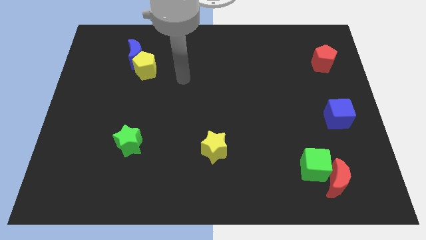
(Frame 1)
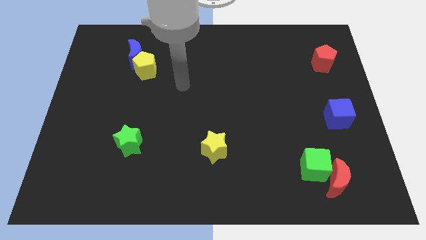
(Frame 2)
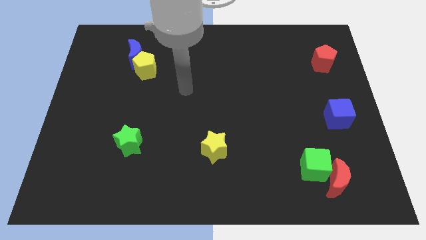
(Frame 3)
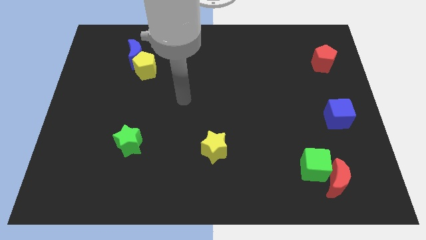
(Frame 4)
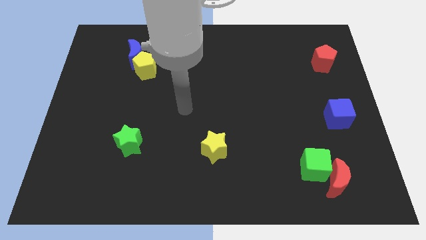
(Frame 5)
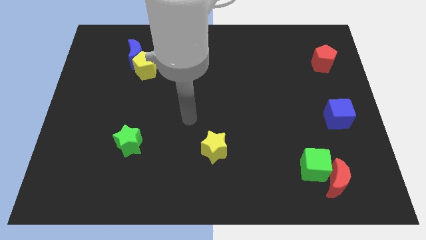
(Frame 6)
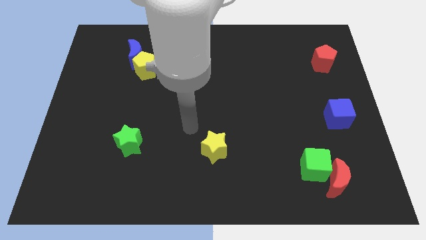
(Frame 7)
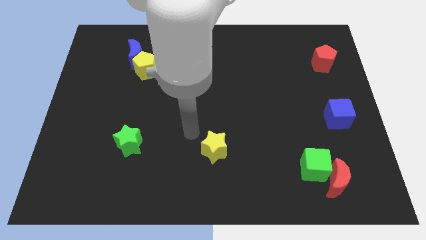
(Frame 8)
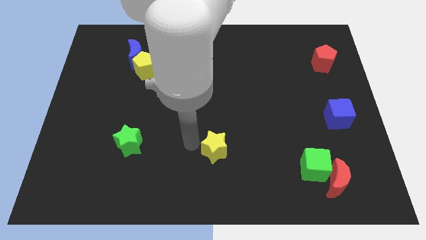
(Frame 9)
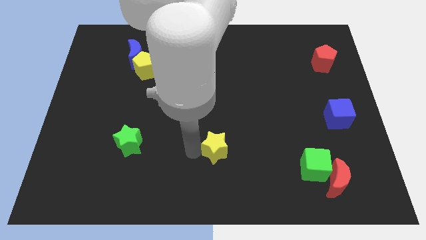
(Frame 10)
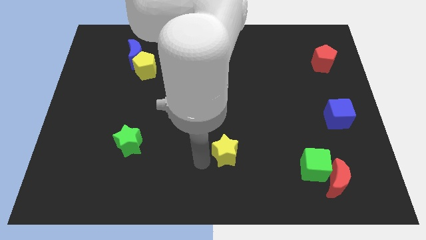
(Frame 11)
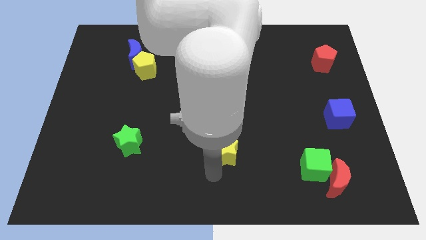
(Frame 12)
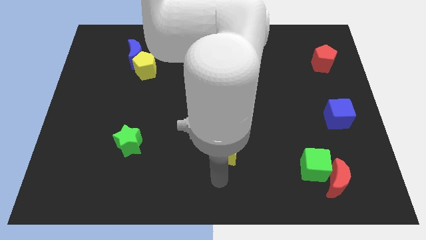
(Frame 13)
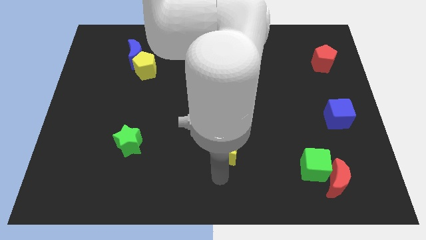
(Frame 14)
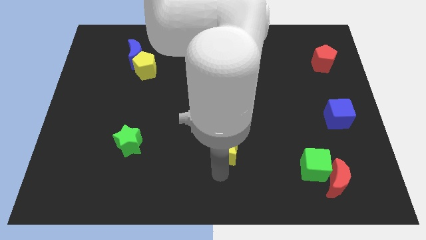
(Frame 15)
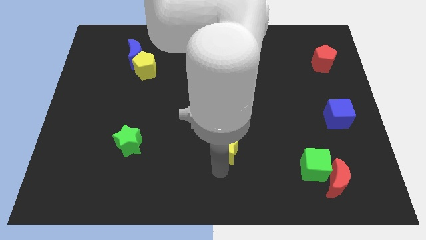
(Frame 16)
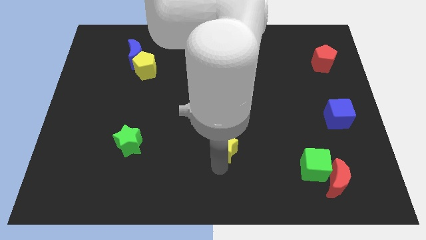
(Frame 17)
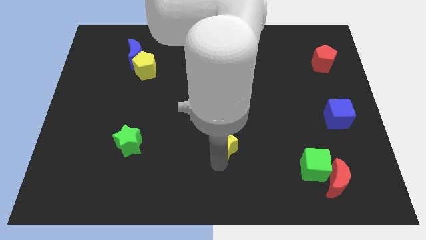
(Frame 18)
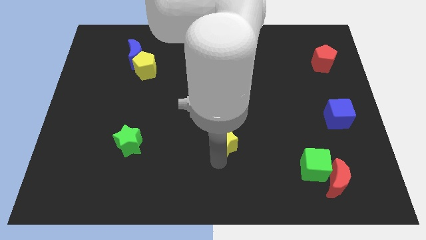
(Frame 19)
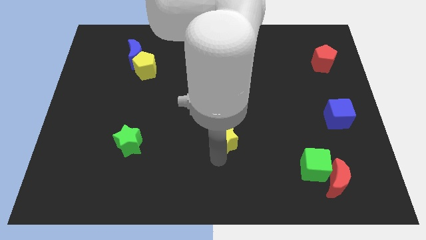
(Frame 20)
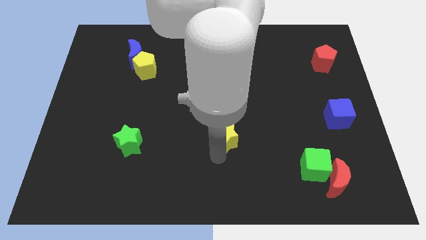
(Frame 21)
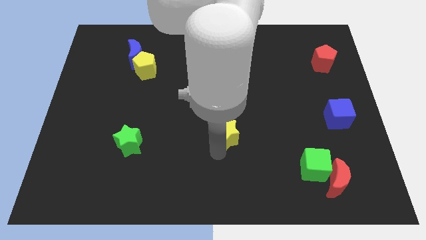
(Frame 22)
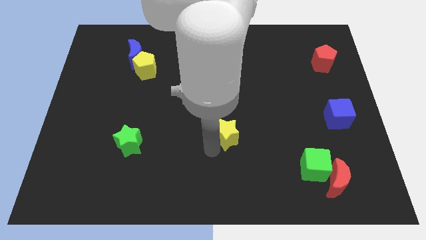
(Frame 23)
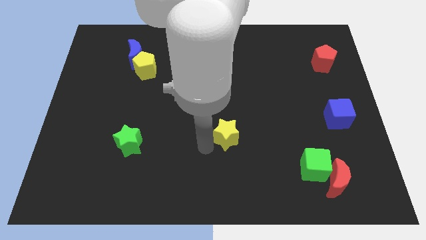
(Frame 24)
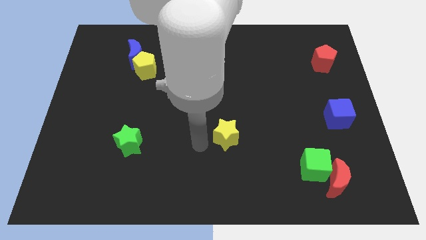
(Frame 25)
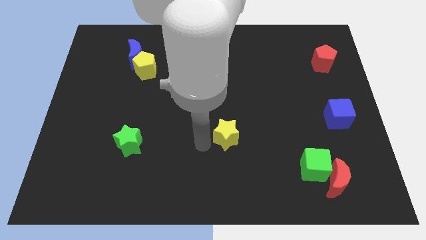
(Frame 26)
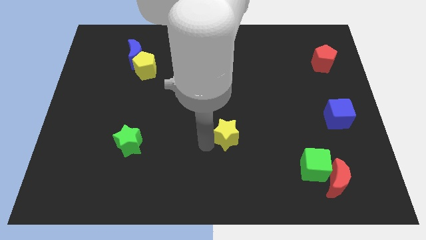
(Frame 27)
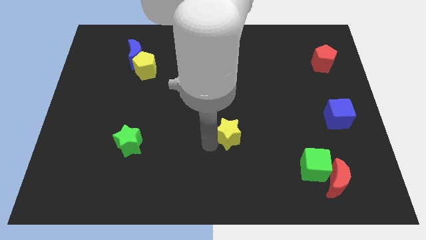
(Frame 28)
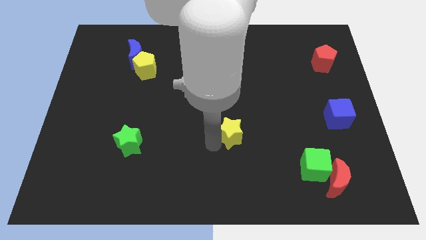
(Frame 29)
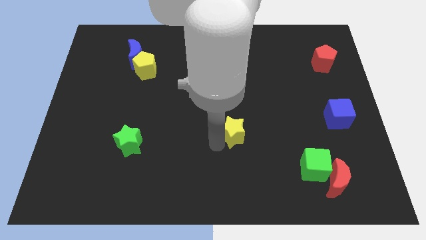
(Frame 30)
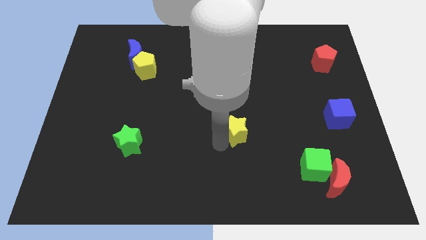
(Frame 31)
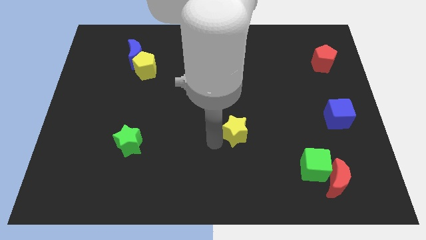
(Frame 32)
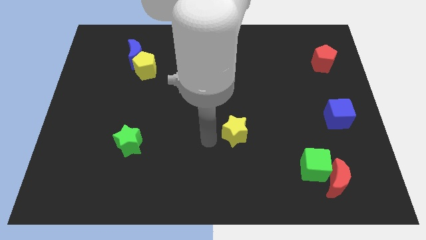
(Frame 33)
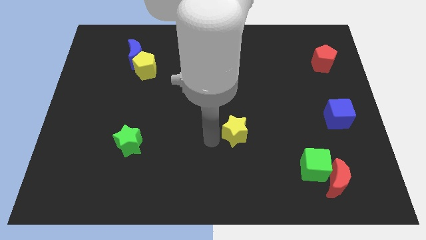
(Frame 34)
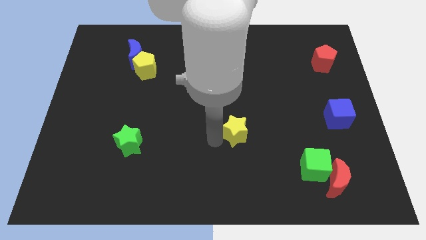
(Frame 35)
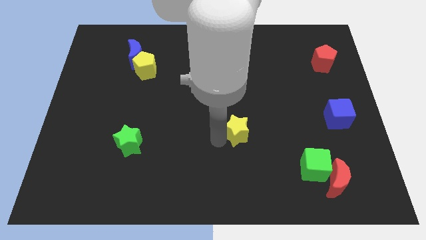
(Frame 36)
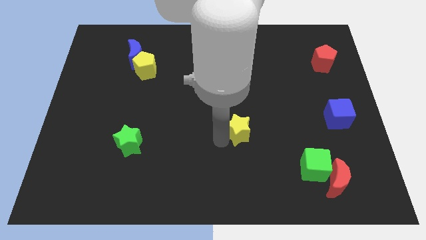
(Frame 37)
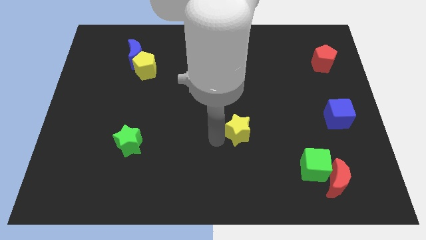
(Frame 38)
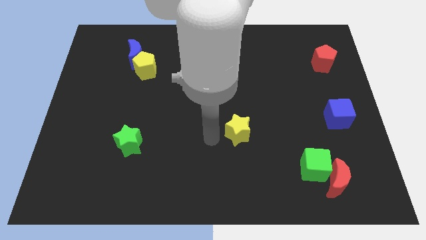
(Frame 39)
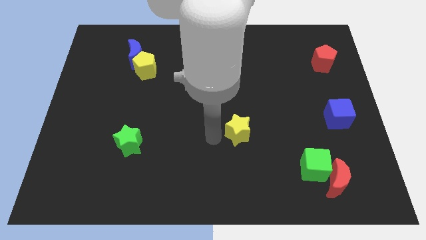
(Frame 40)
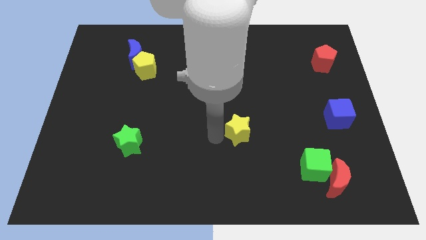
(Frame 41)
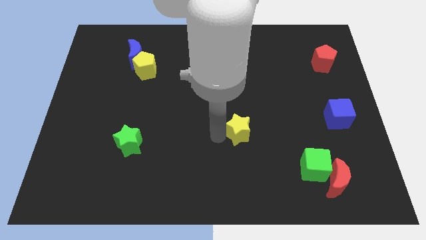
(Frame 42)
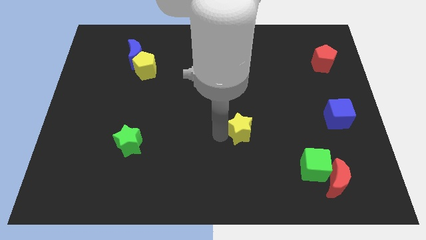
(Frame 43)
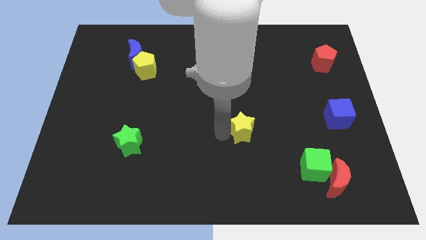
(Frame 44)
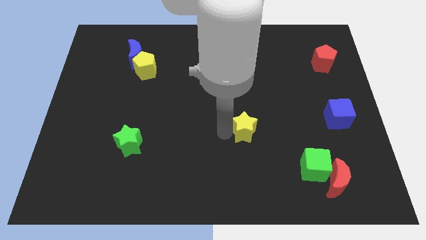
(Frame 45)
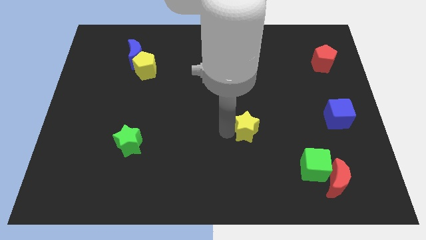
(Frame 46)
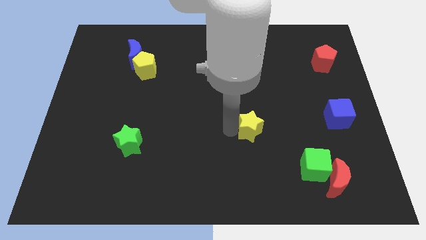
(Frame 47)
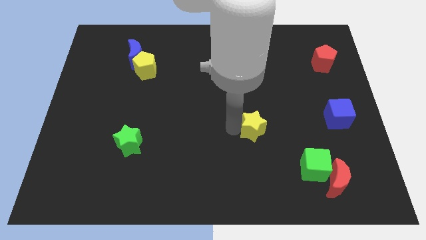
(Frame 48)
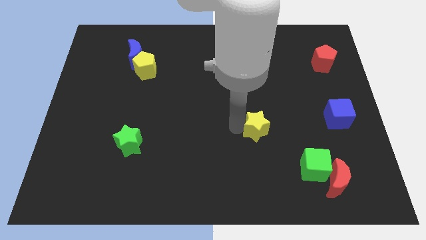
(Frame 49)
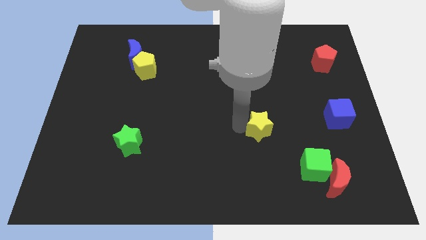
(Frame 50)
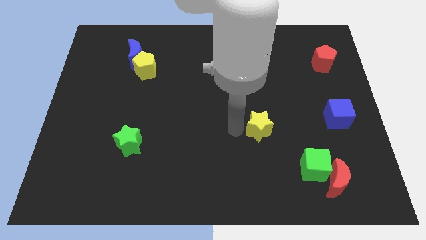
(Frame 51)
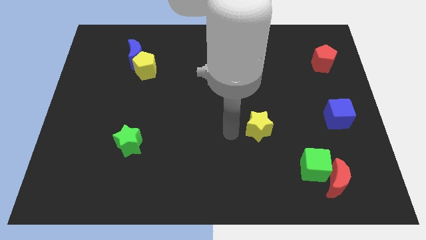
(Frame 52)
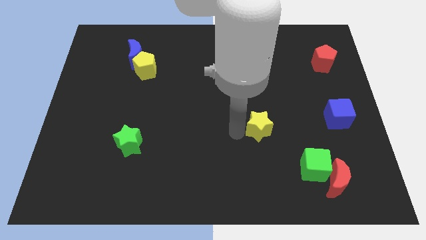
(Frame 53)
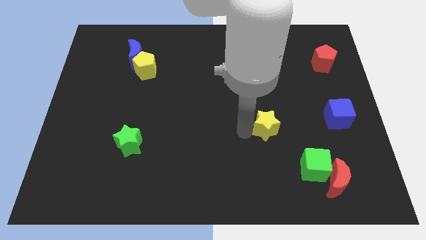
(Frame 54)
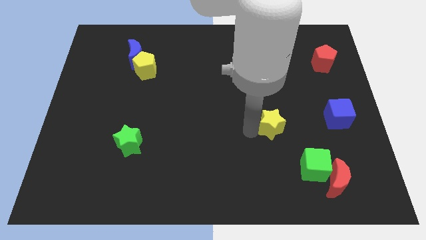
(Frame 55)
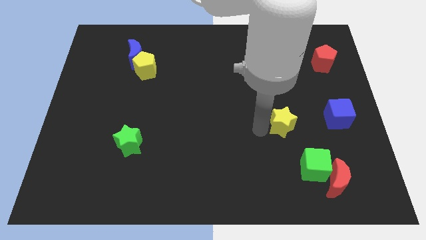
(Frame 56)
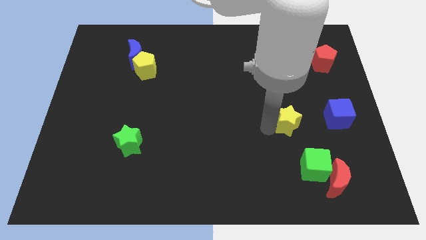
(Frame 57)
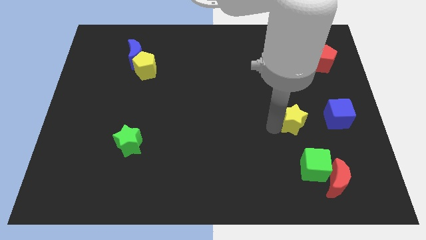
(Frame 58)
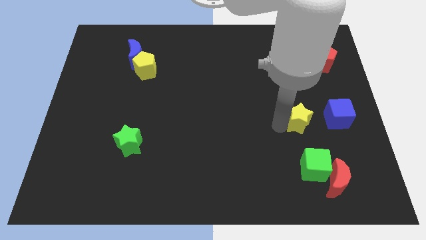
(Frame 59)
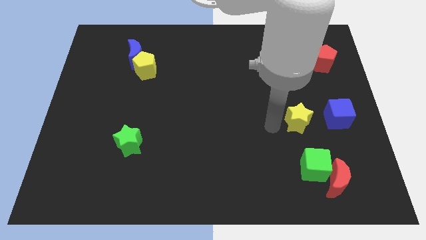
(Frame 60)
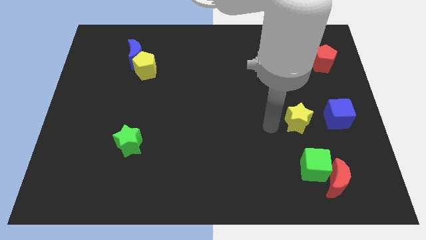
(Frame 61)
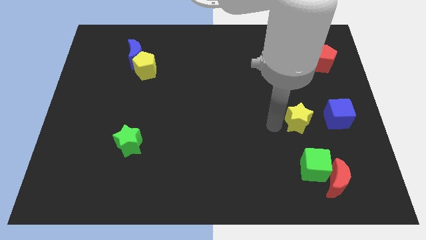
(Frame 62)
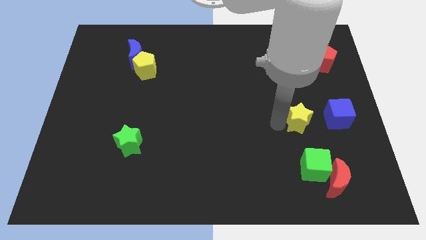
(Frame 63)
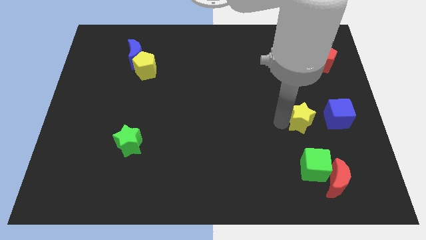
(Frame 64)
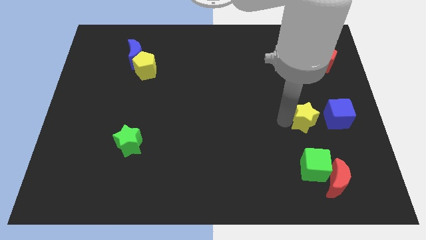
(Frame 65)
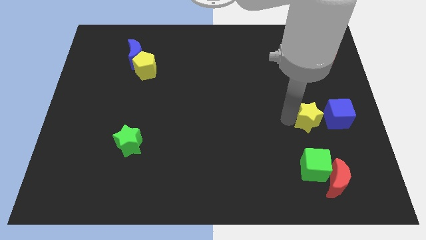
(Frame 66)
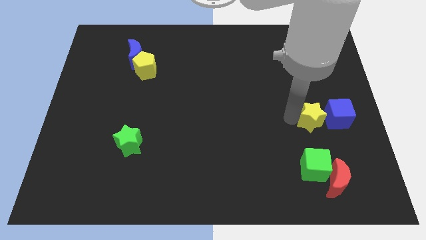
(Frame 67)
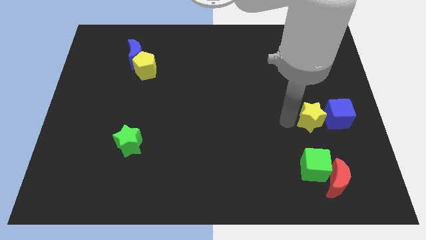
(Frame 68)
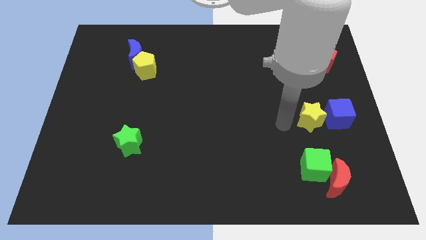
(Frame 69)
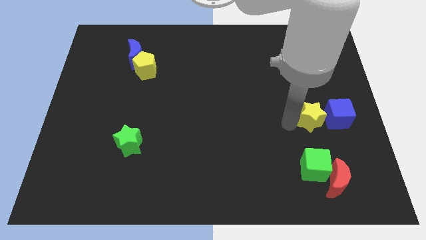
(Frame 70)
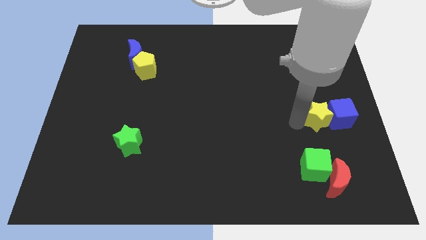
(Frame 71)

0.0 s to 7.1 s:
slide the yellow star close to the blue cube

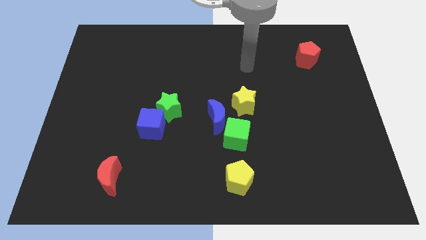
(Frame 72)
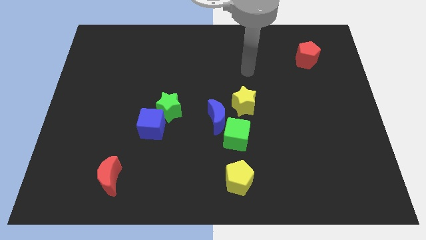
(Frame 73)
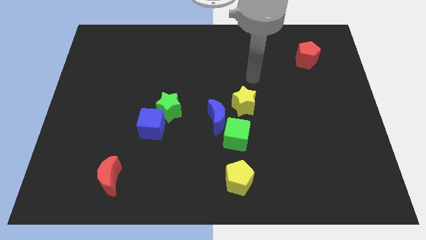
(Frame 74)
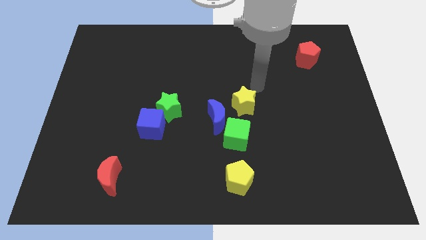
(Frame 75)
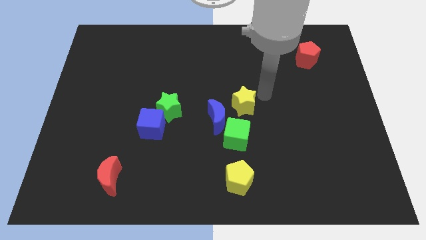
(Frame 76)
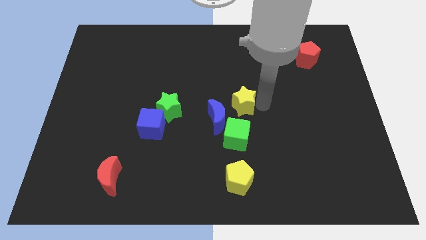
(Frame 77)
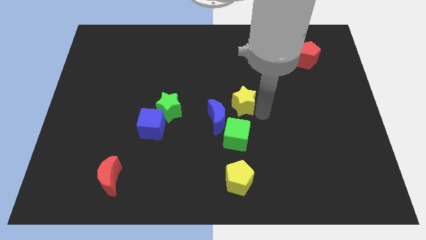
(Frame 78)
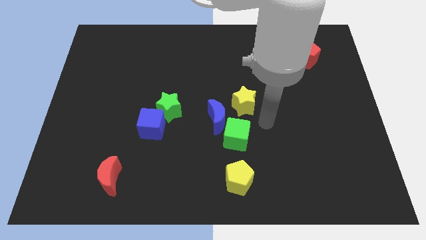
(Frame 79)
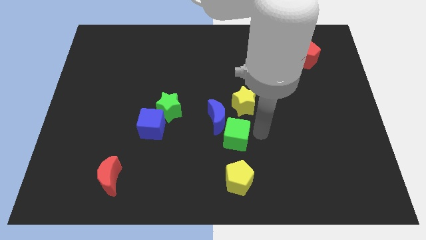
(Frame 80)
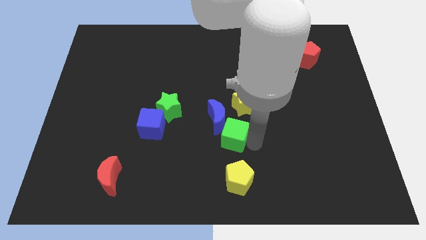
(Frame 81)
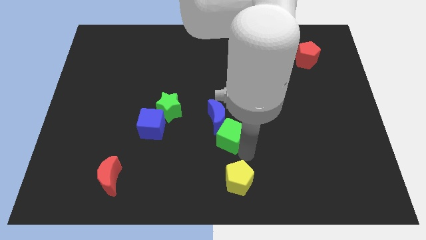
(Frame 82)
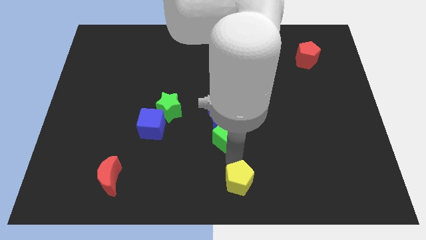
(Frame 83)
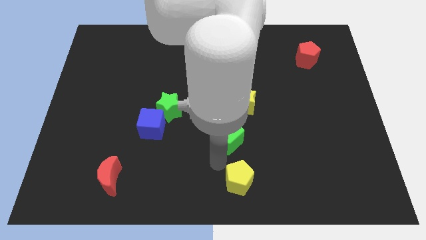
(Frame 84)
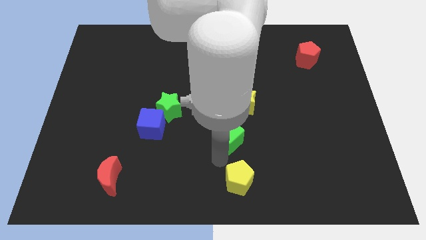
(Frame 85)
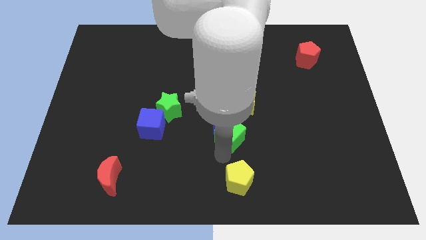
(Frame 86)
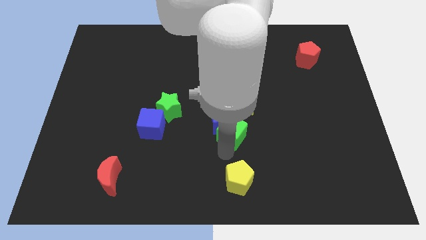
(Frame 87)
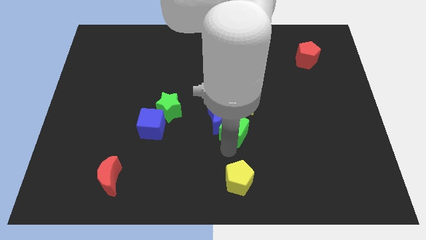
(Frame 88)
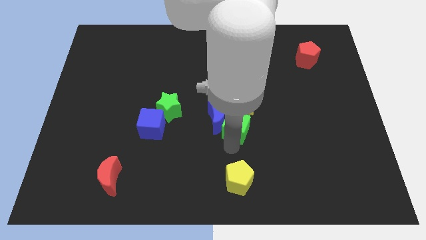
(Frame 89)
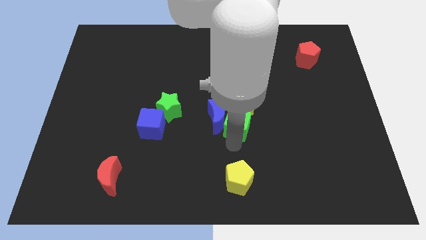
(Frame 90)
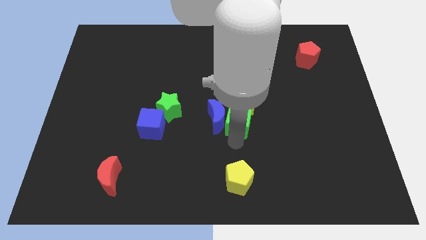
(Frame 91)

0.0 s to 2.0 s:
push the green cube next to the yellow star
